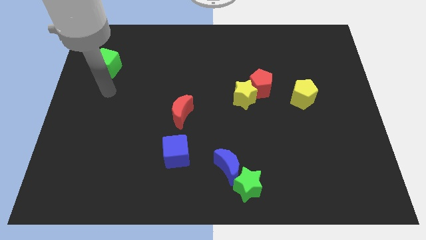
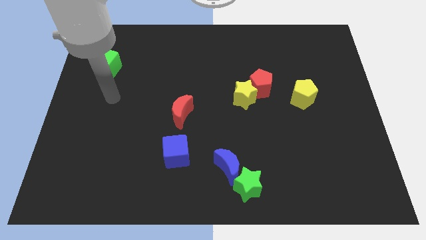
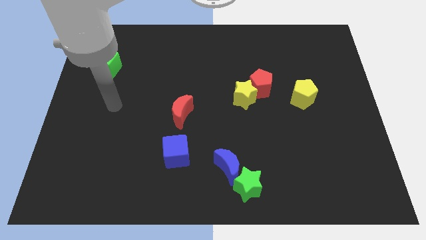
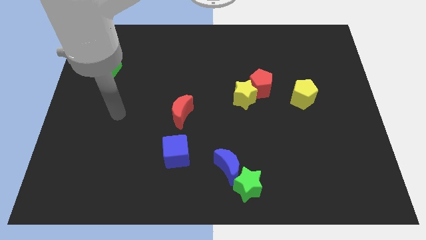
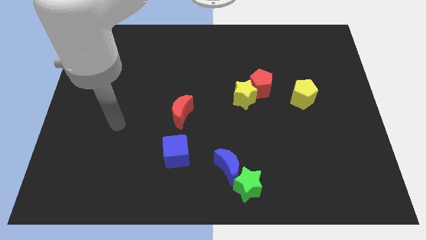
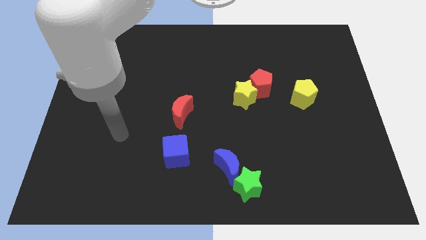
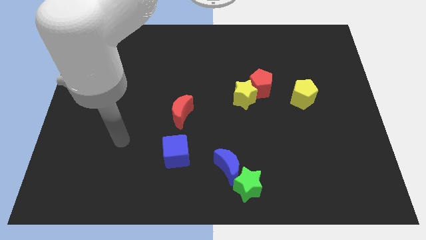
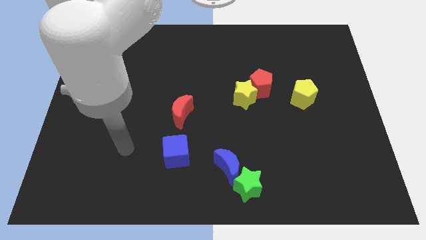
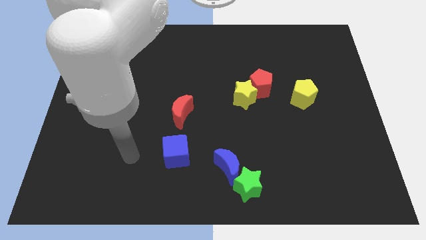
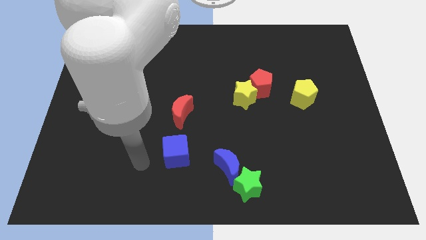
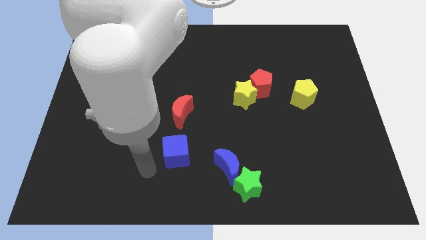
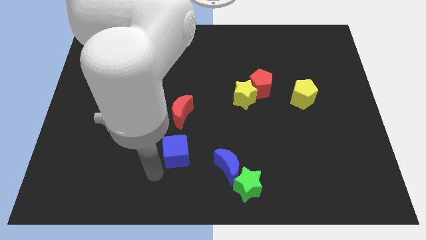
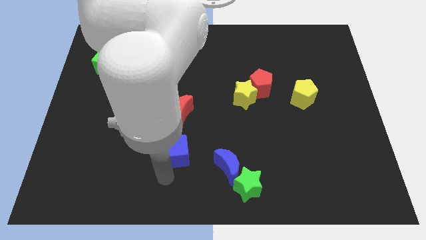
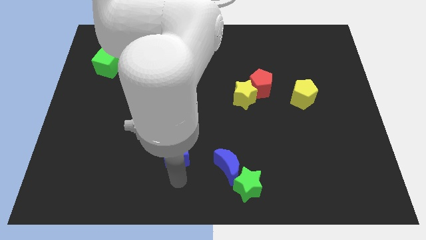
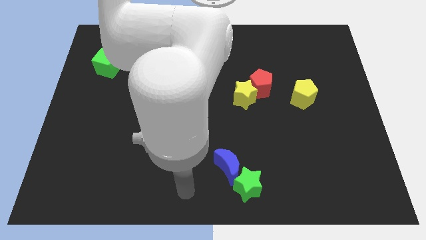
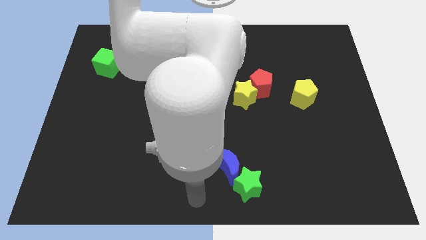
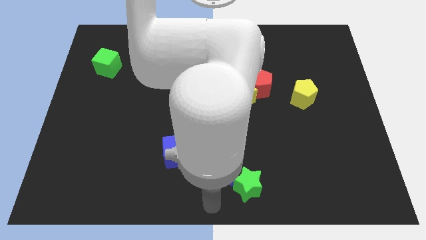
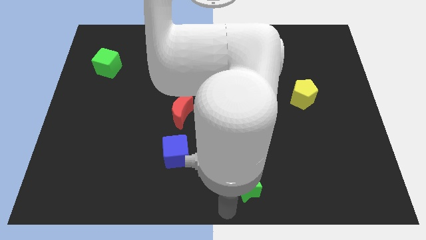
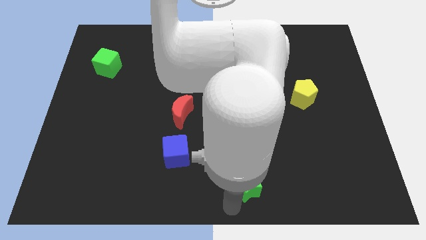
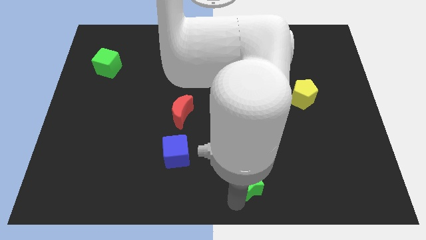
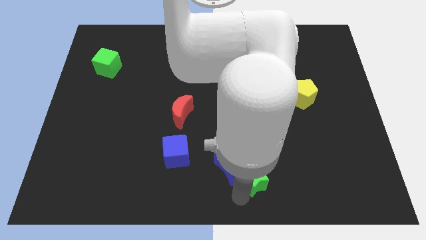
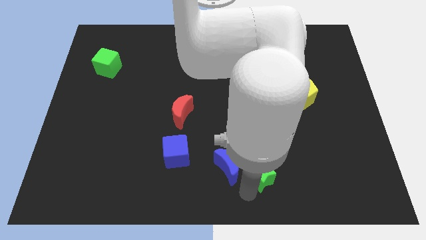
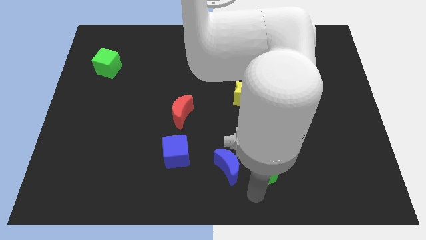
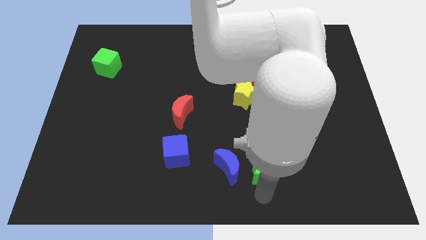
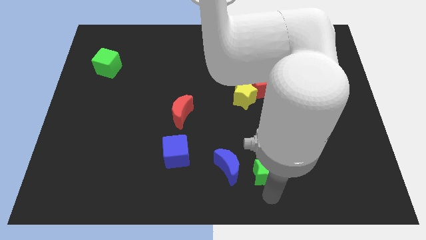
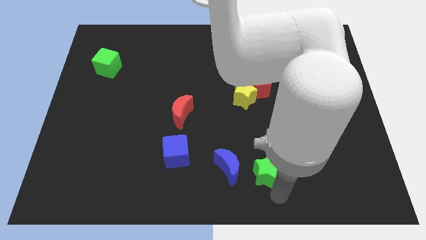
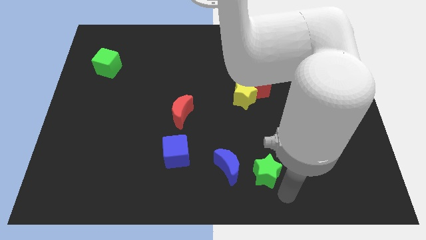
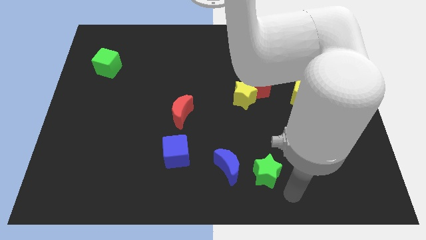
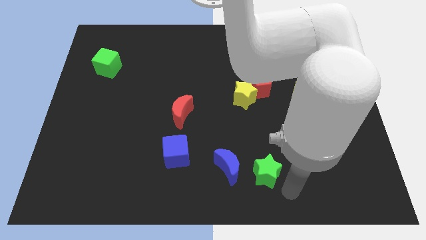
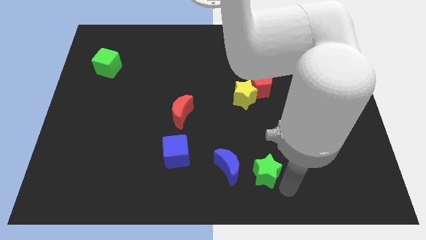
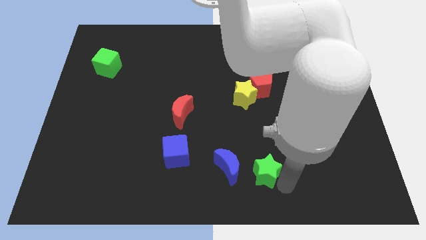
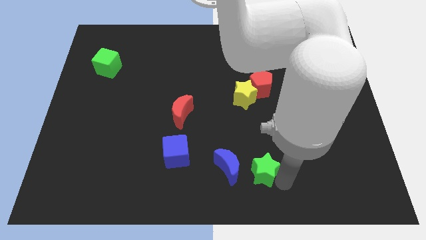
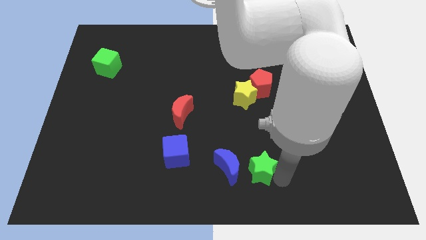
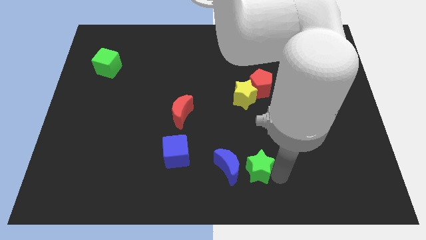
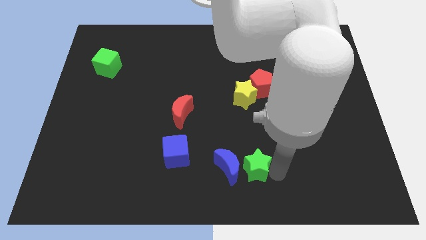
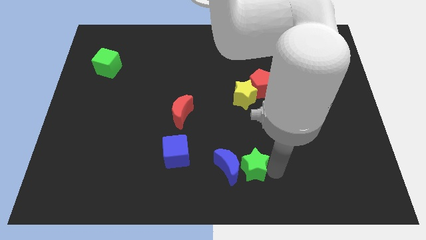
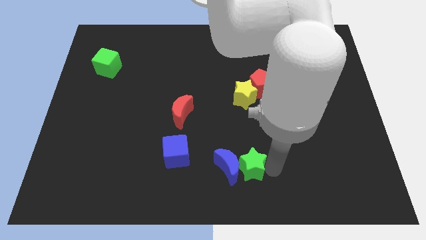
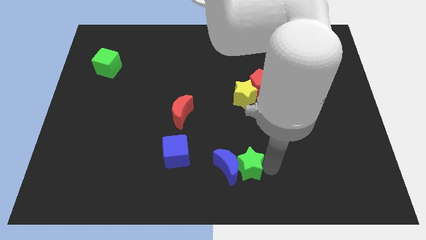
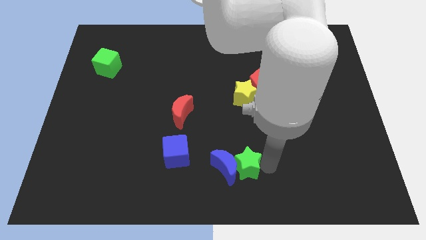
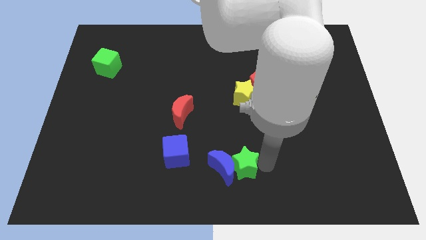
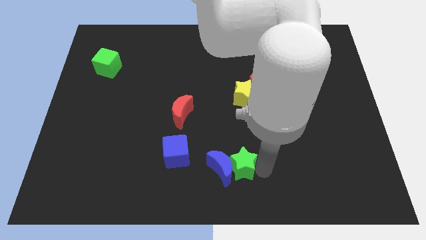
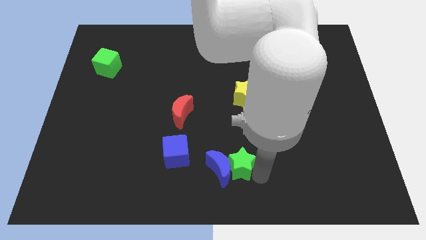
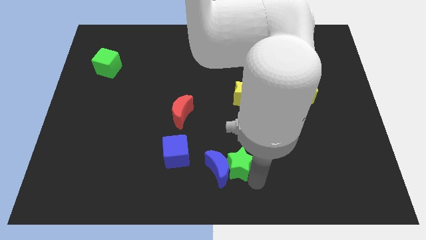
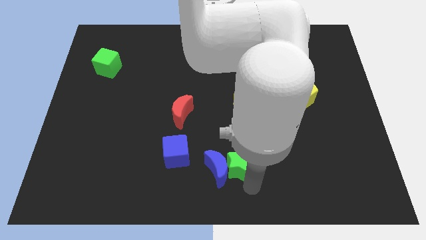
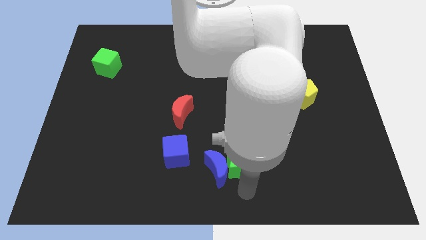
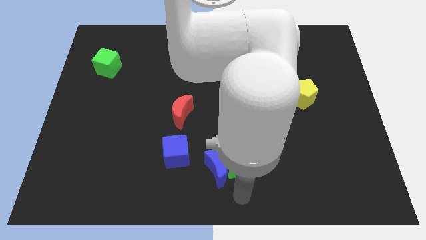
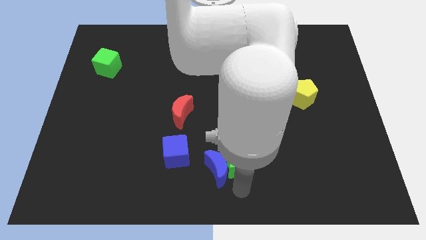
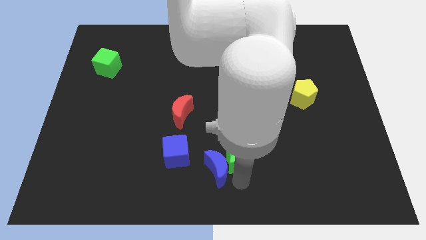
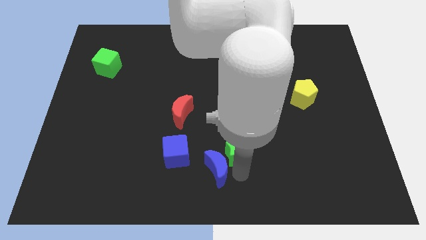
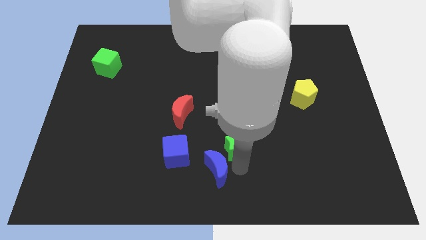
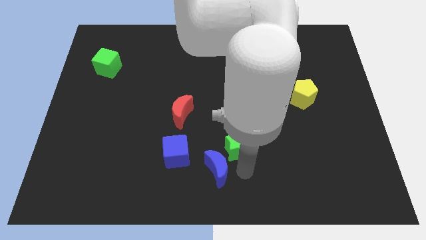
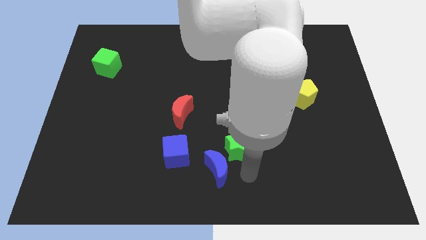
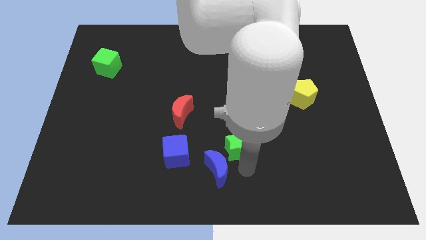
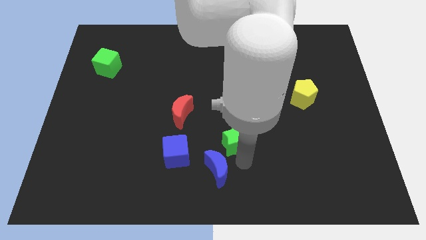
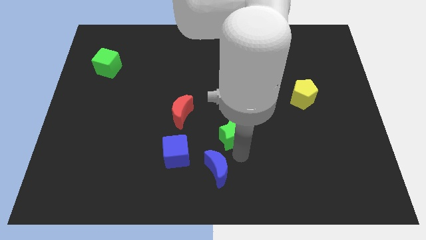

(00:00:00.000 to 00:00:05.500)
move the green star to the center
